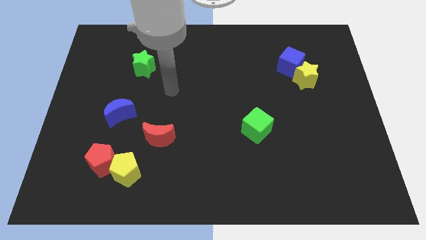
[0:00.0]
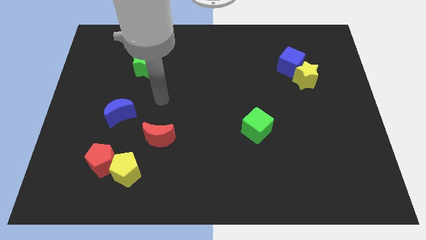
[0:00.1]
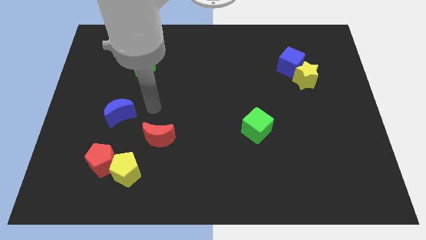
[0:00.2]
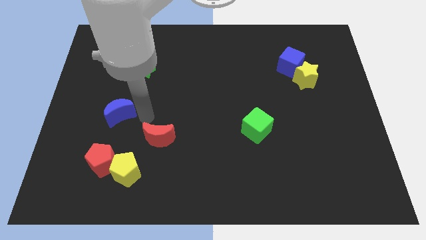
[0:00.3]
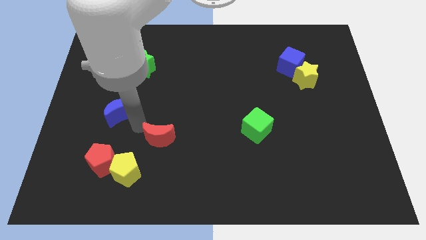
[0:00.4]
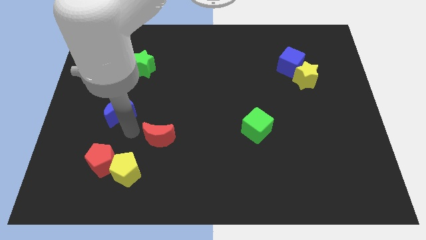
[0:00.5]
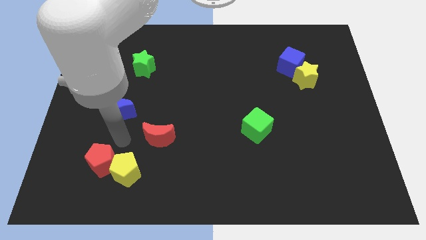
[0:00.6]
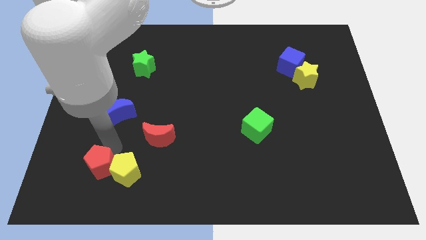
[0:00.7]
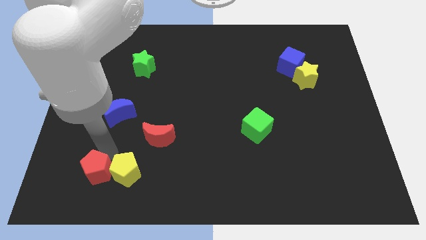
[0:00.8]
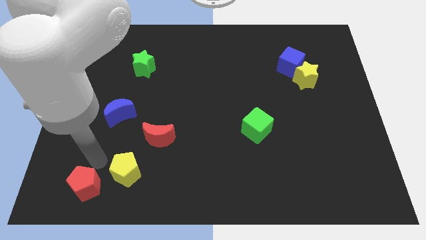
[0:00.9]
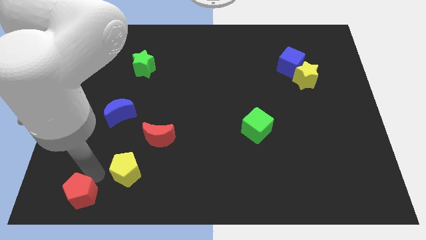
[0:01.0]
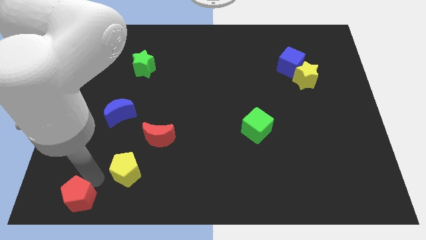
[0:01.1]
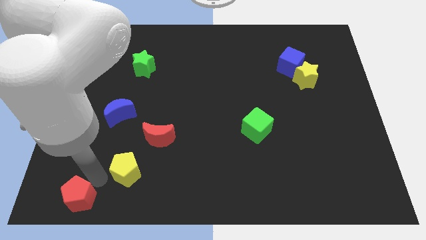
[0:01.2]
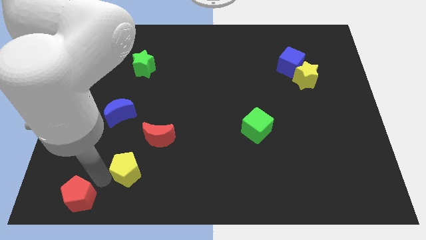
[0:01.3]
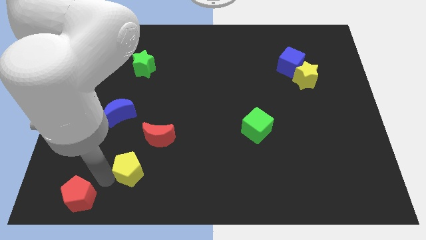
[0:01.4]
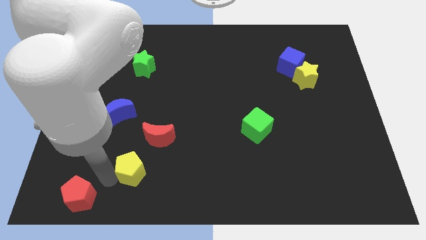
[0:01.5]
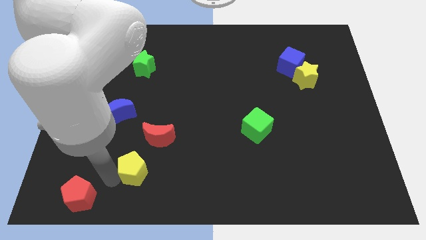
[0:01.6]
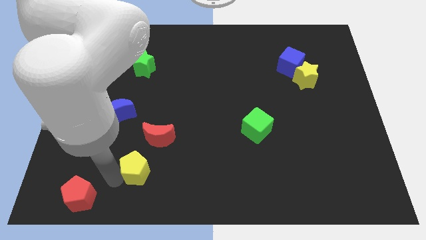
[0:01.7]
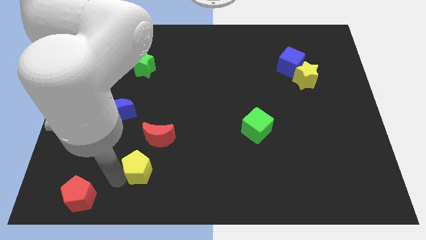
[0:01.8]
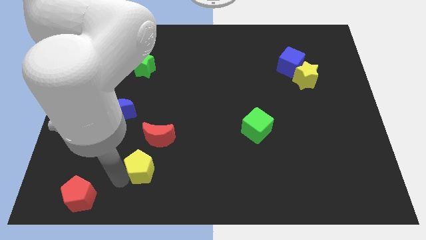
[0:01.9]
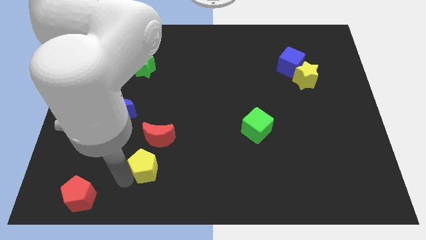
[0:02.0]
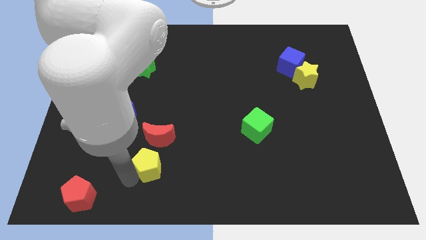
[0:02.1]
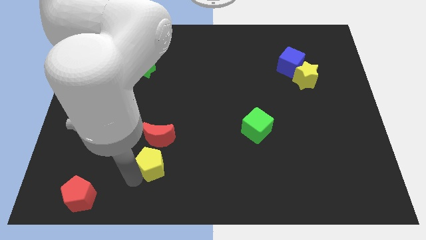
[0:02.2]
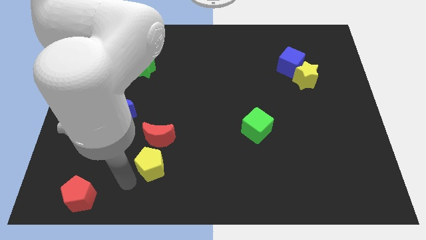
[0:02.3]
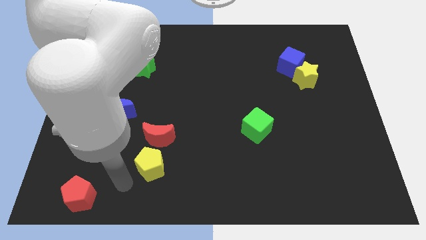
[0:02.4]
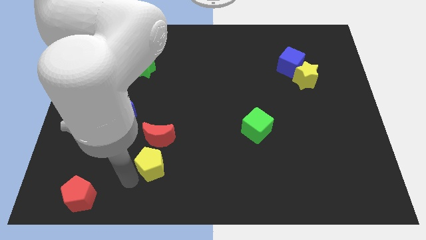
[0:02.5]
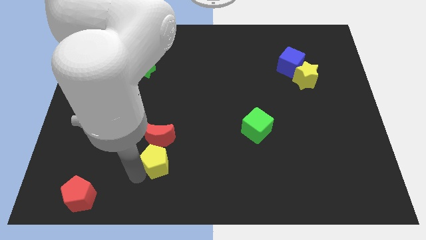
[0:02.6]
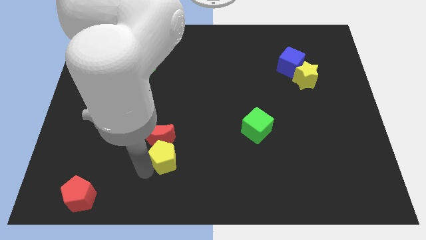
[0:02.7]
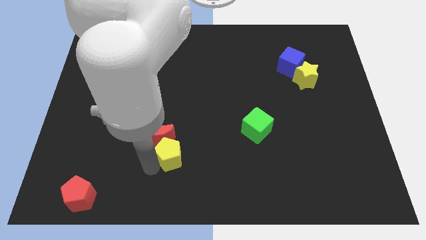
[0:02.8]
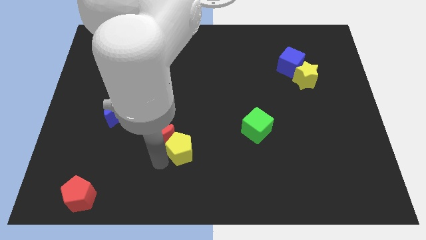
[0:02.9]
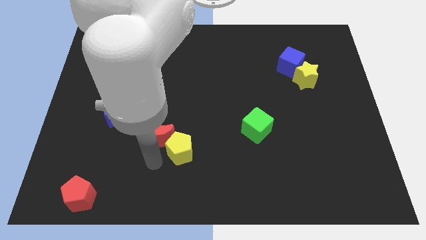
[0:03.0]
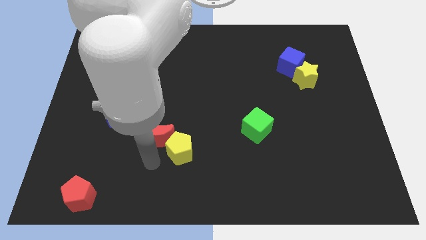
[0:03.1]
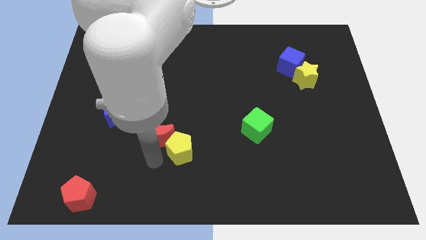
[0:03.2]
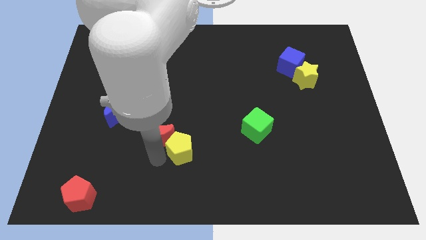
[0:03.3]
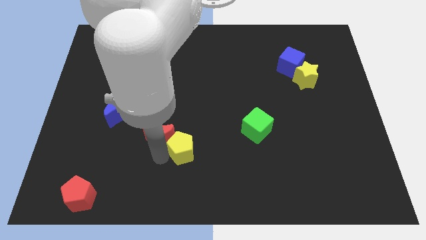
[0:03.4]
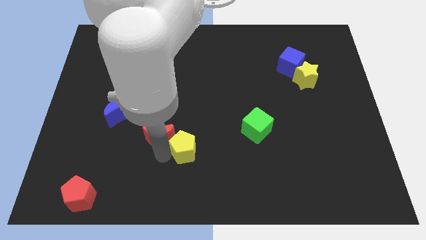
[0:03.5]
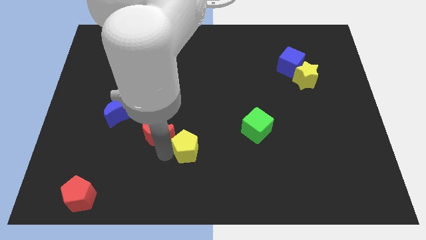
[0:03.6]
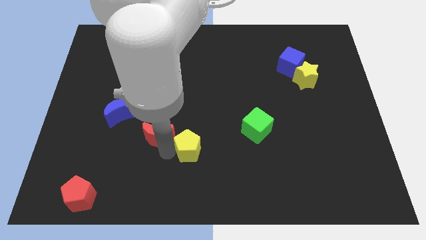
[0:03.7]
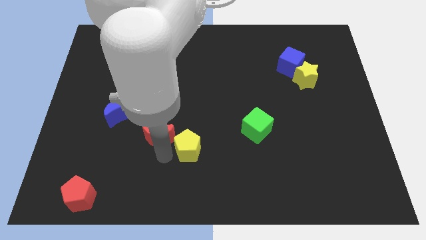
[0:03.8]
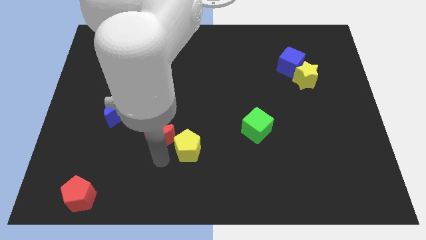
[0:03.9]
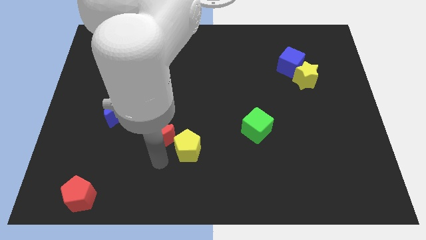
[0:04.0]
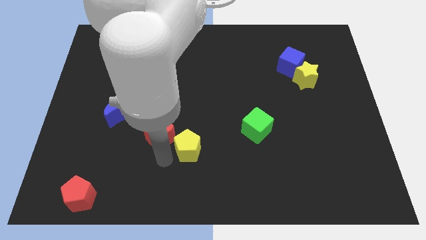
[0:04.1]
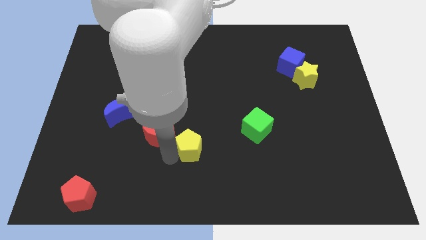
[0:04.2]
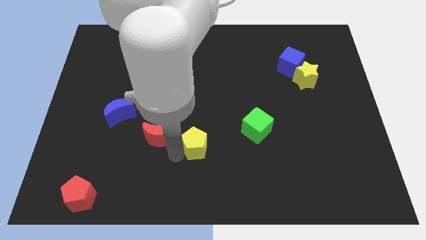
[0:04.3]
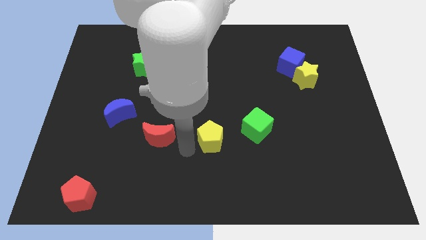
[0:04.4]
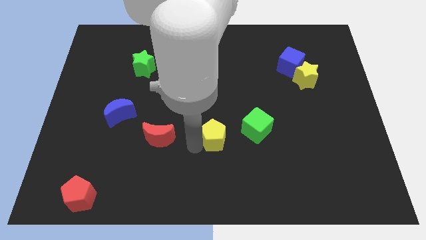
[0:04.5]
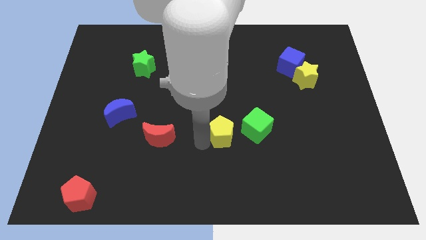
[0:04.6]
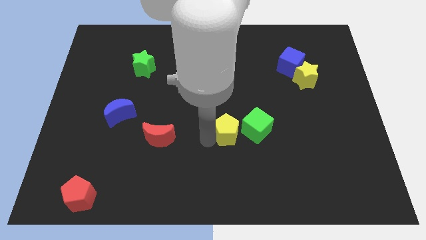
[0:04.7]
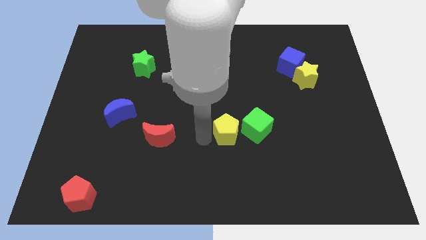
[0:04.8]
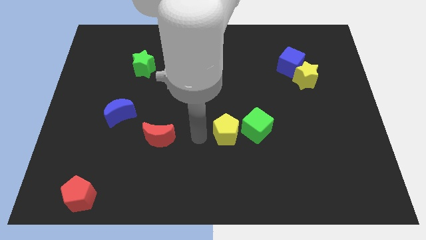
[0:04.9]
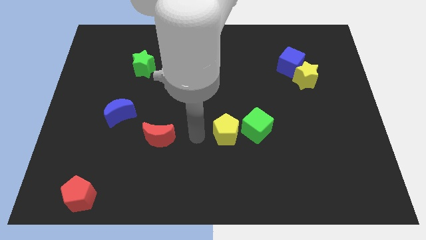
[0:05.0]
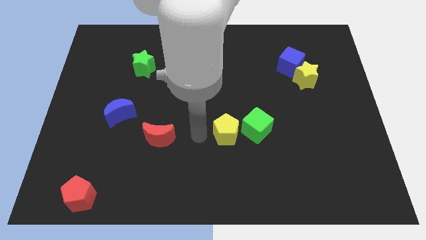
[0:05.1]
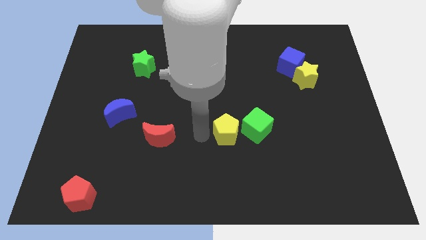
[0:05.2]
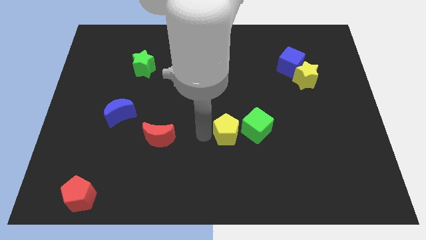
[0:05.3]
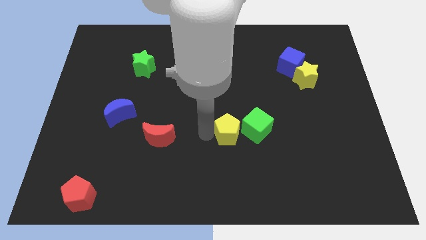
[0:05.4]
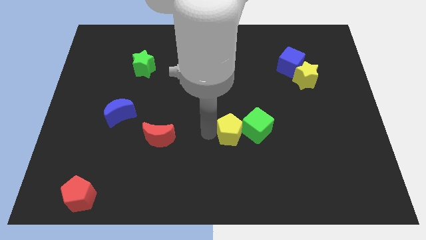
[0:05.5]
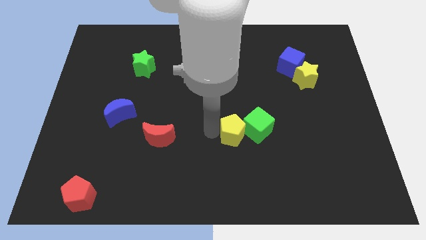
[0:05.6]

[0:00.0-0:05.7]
move the yellow pentagon close to the green cube

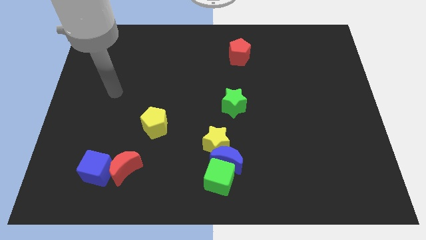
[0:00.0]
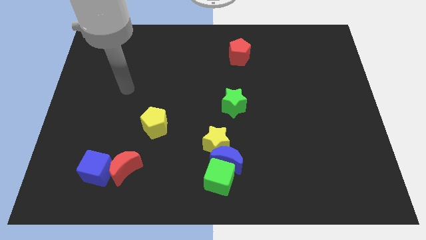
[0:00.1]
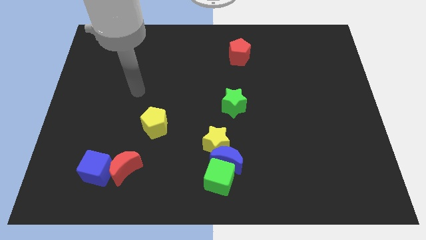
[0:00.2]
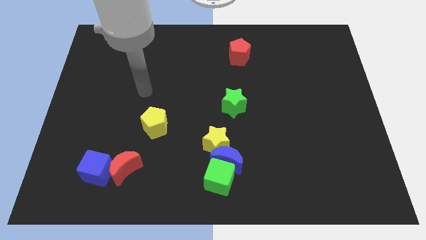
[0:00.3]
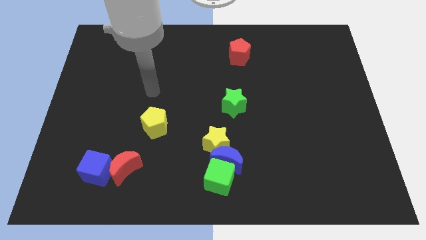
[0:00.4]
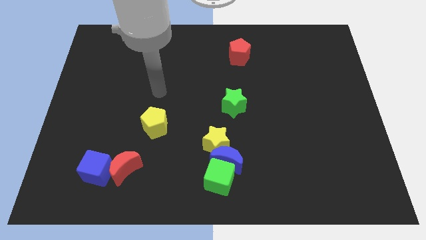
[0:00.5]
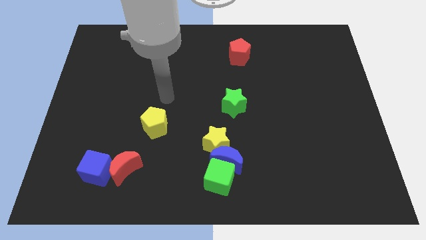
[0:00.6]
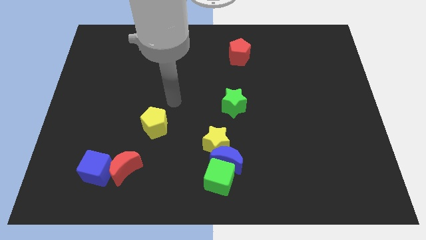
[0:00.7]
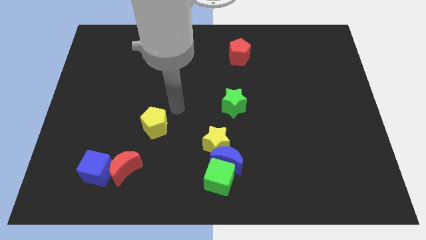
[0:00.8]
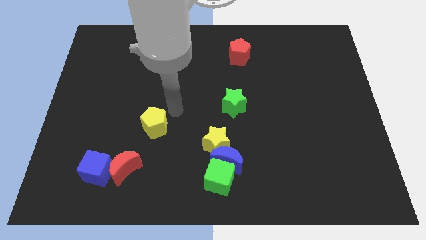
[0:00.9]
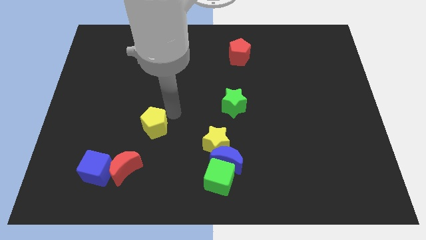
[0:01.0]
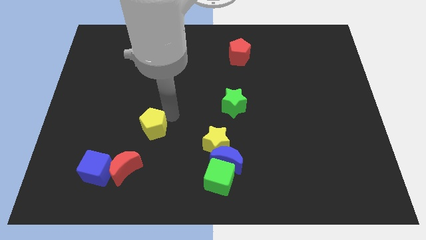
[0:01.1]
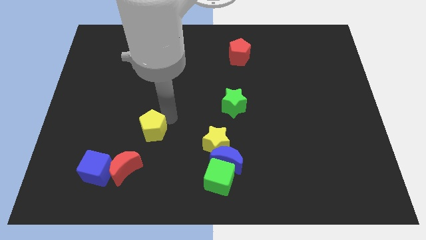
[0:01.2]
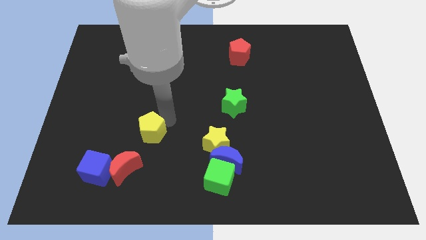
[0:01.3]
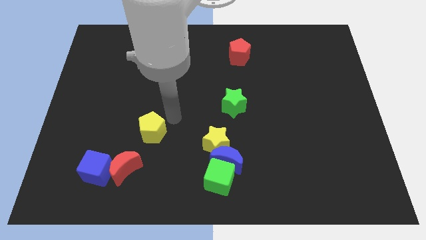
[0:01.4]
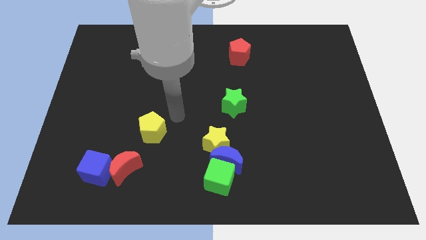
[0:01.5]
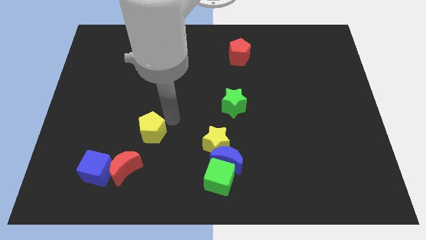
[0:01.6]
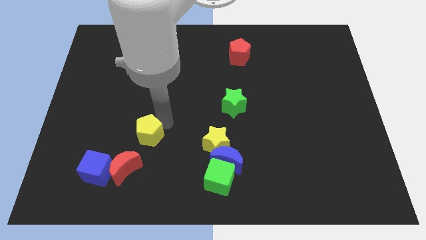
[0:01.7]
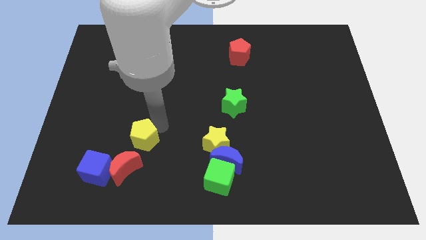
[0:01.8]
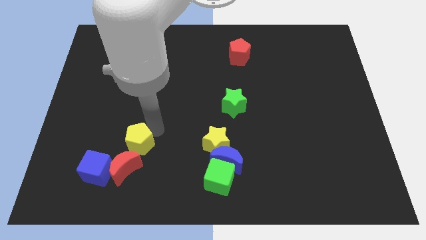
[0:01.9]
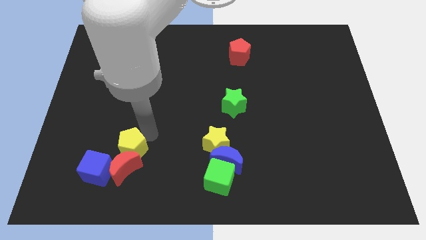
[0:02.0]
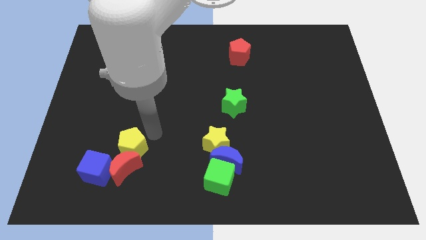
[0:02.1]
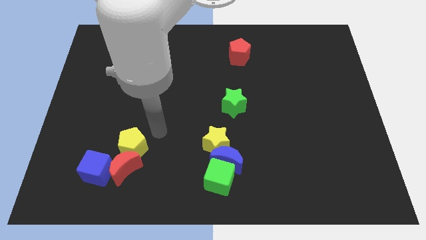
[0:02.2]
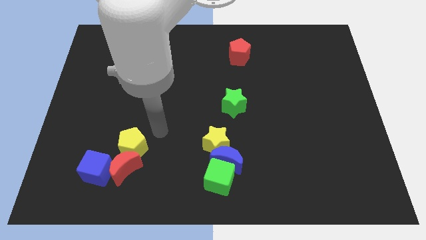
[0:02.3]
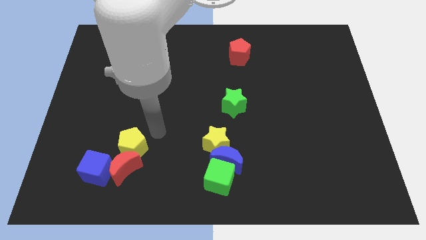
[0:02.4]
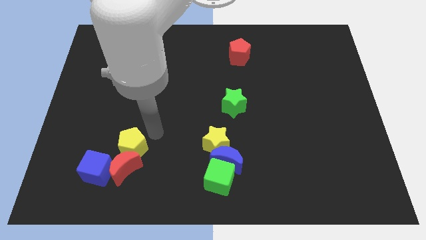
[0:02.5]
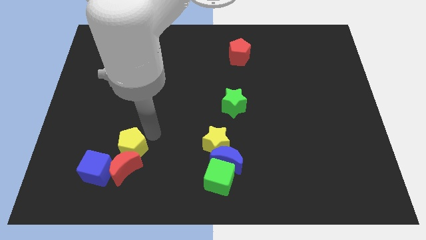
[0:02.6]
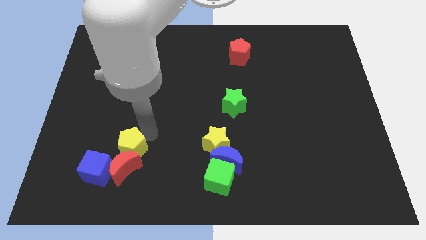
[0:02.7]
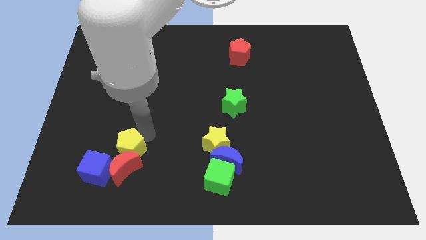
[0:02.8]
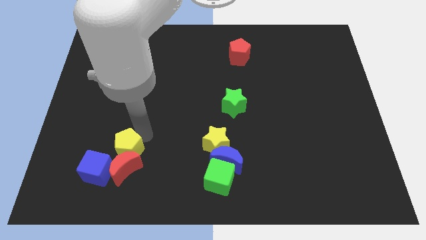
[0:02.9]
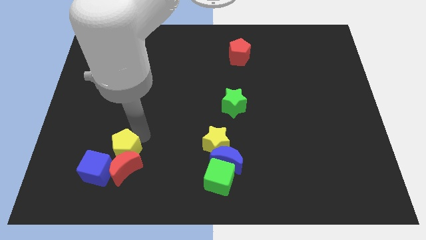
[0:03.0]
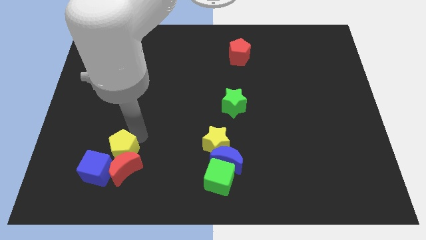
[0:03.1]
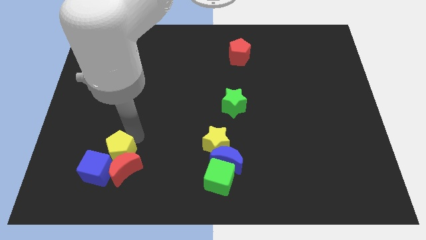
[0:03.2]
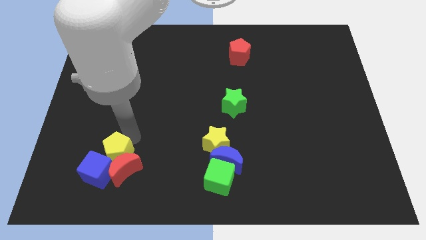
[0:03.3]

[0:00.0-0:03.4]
move the yellow pentagon to the blue cube
